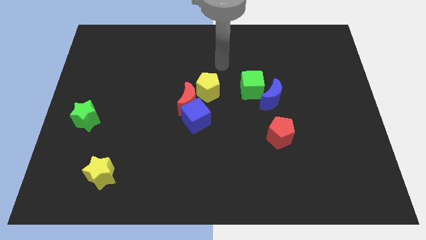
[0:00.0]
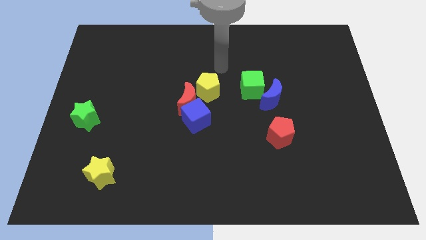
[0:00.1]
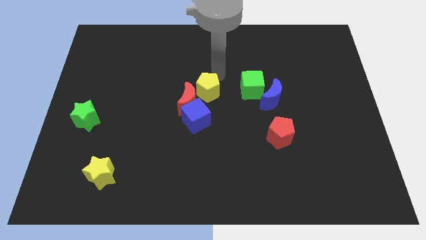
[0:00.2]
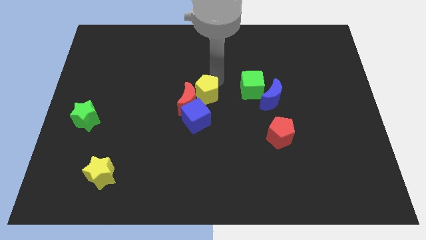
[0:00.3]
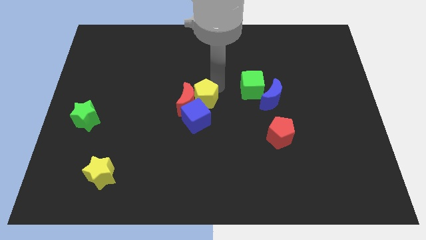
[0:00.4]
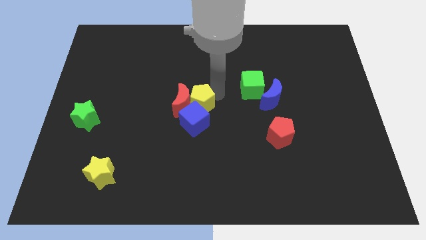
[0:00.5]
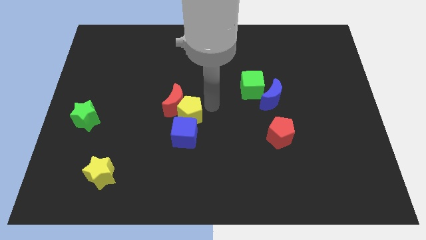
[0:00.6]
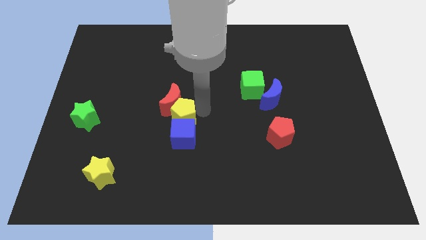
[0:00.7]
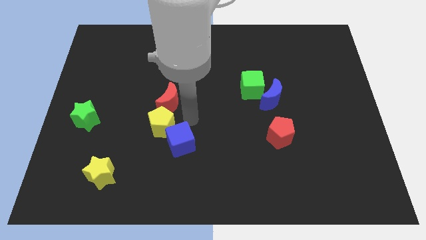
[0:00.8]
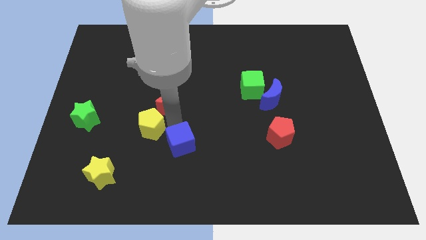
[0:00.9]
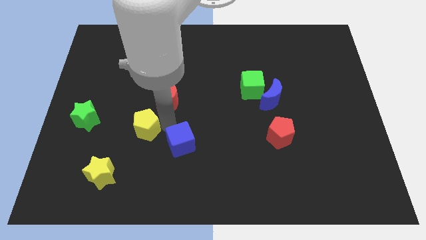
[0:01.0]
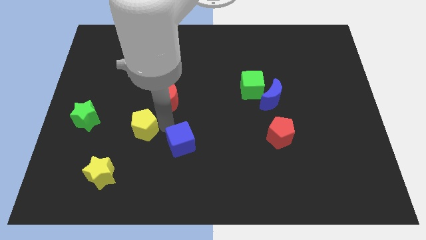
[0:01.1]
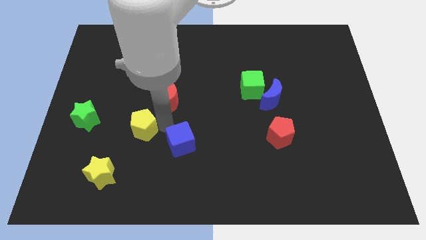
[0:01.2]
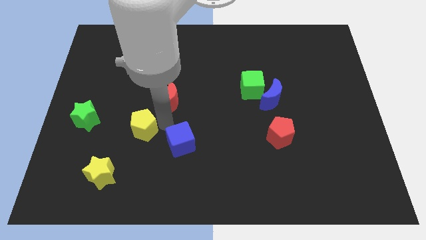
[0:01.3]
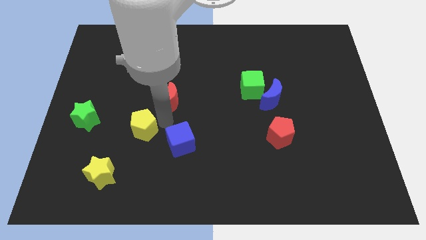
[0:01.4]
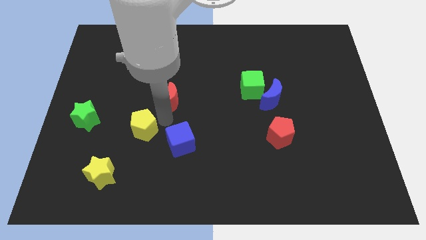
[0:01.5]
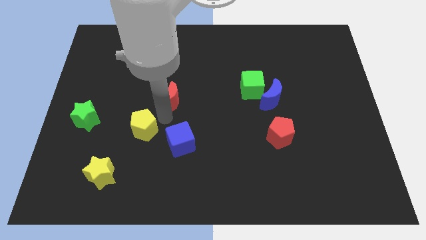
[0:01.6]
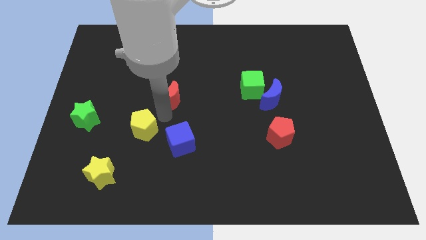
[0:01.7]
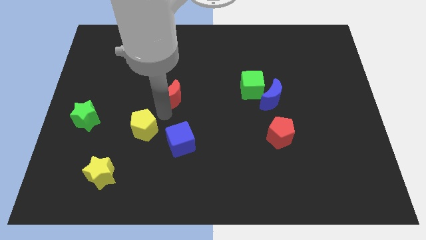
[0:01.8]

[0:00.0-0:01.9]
move the red moon away from the blue cube and yellow pentagon

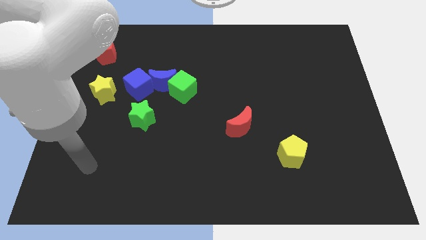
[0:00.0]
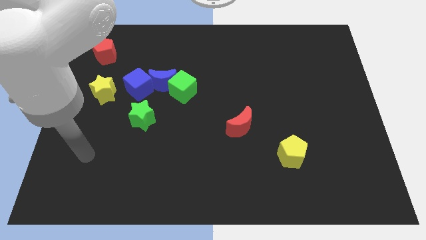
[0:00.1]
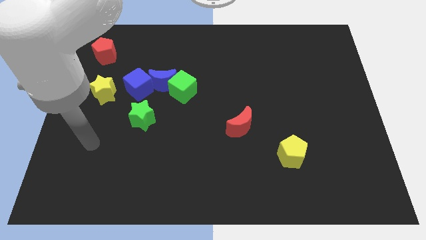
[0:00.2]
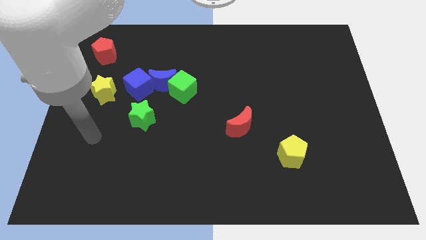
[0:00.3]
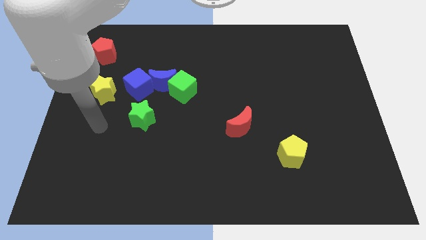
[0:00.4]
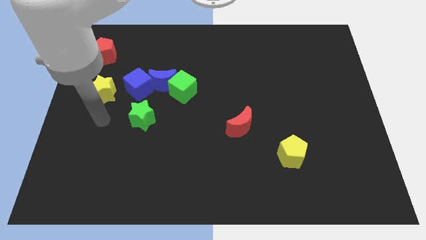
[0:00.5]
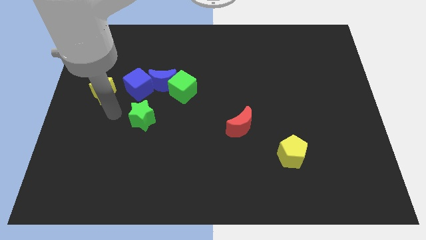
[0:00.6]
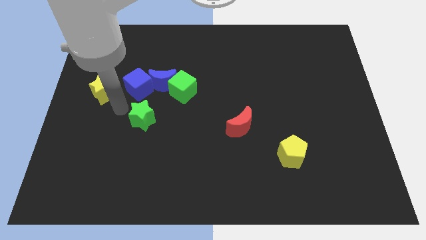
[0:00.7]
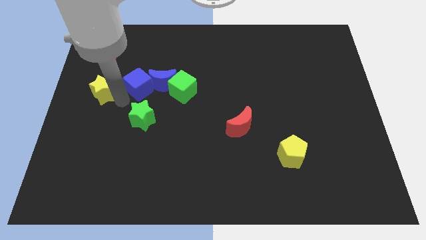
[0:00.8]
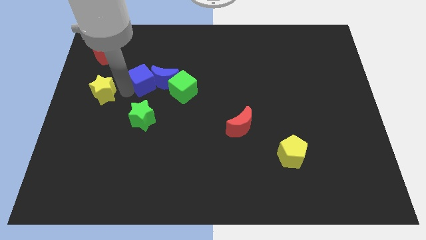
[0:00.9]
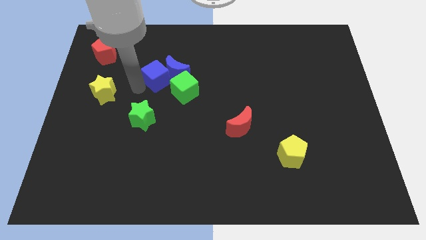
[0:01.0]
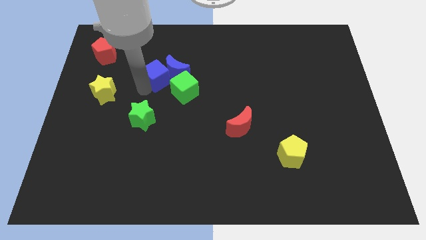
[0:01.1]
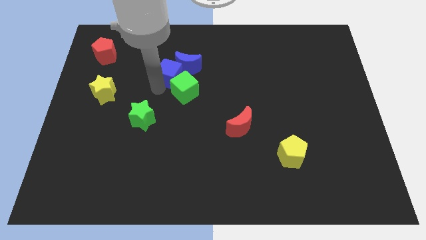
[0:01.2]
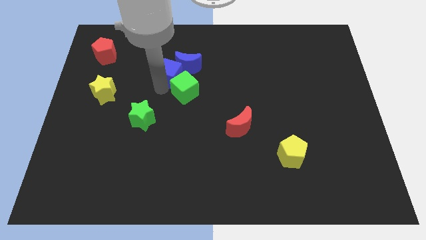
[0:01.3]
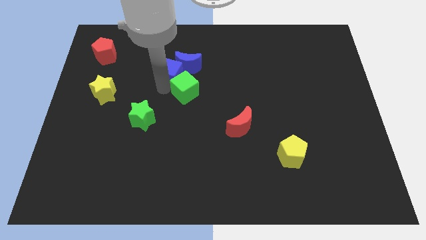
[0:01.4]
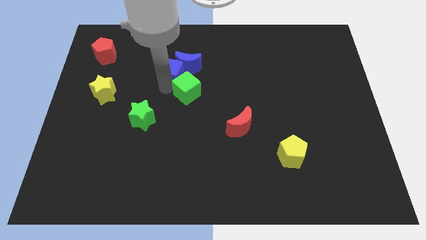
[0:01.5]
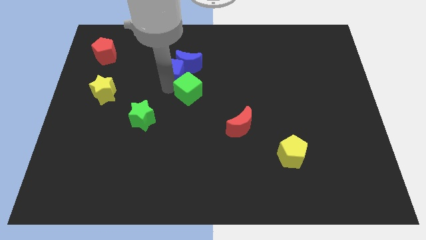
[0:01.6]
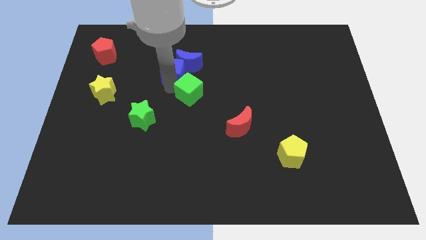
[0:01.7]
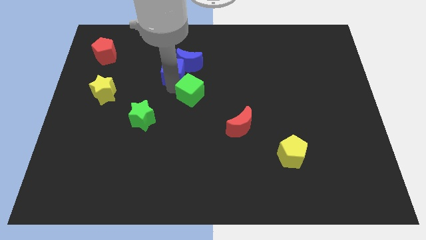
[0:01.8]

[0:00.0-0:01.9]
move the green cube away from the blue moon

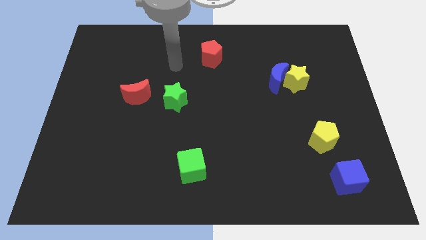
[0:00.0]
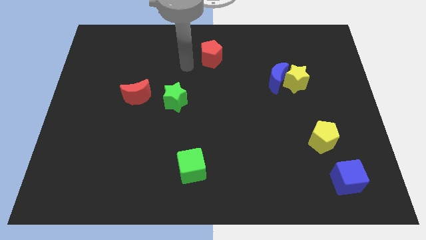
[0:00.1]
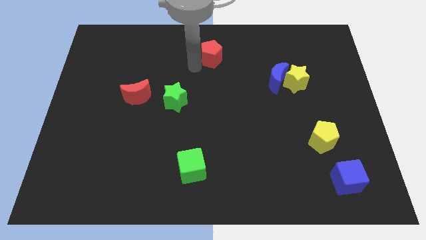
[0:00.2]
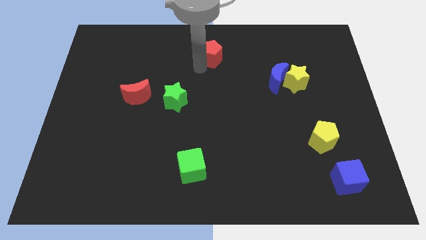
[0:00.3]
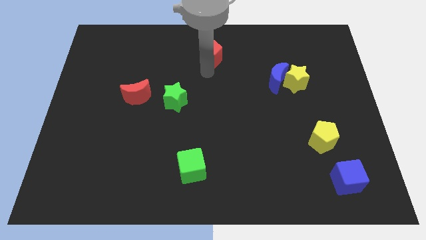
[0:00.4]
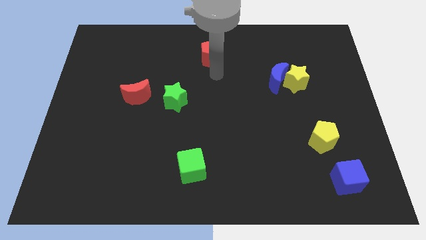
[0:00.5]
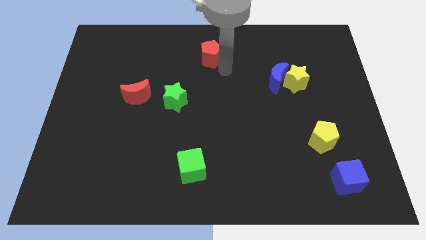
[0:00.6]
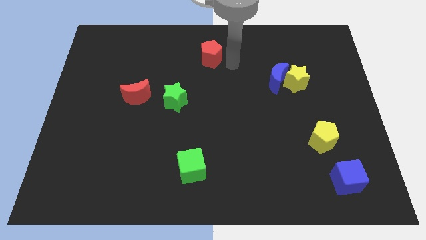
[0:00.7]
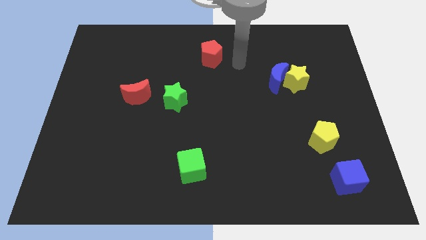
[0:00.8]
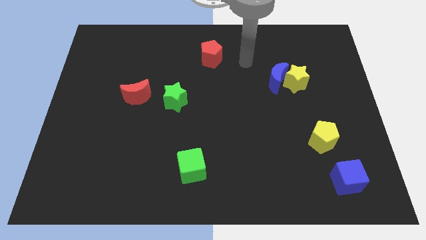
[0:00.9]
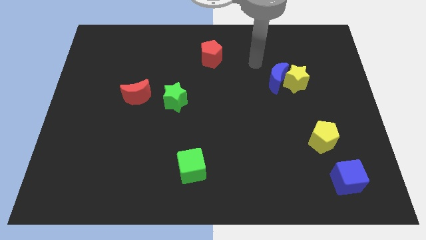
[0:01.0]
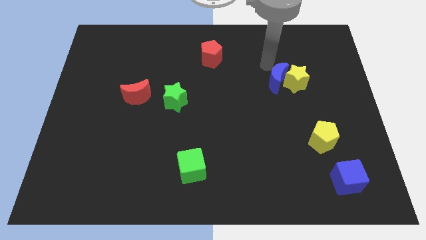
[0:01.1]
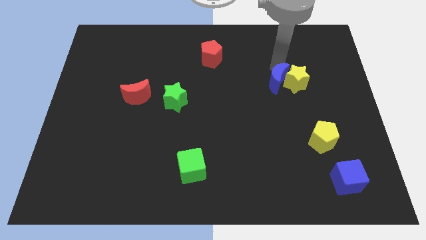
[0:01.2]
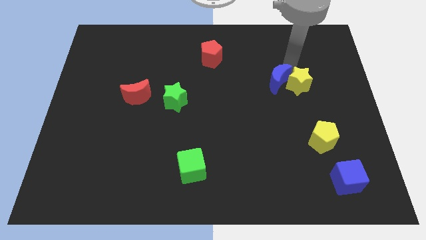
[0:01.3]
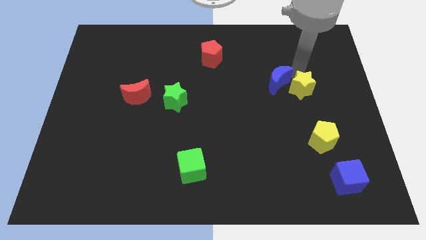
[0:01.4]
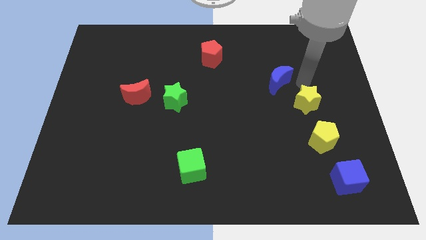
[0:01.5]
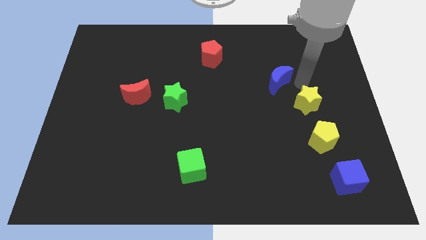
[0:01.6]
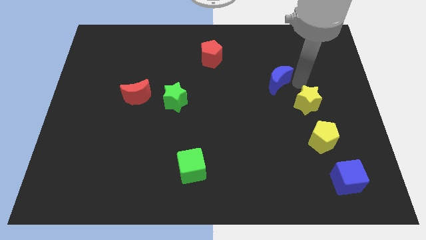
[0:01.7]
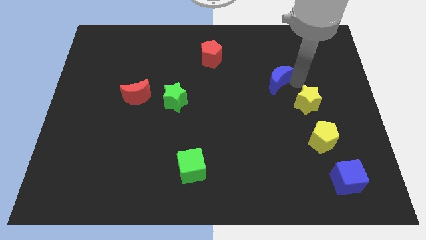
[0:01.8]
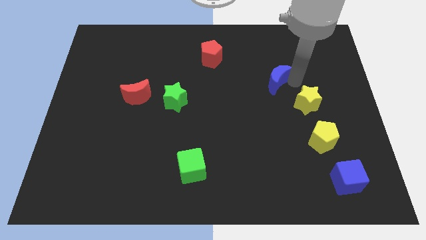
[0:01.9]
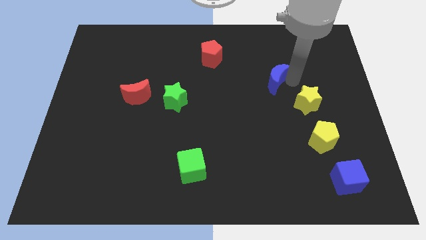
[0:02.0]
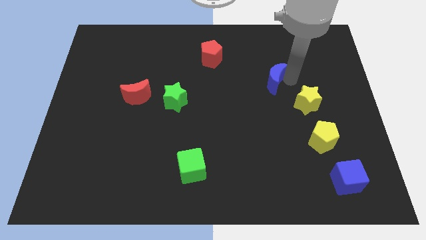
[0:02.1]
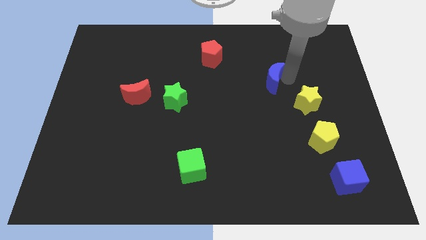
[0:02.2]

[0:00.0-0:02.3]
pull the blue moon apart from the yellow star

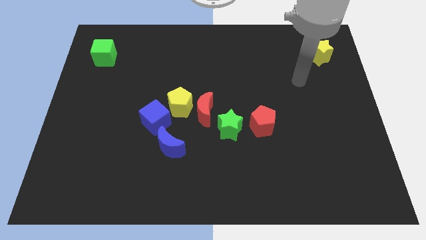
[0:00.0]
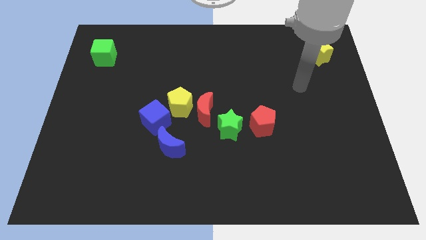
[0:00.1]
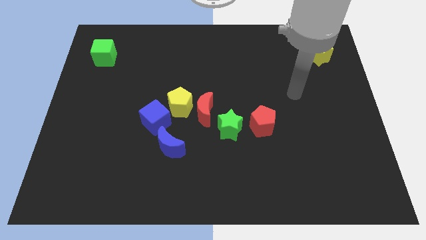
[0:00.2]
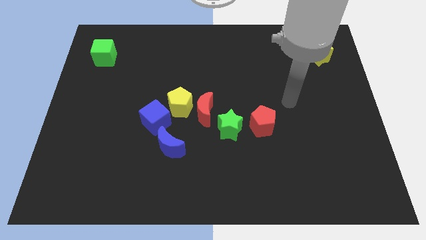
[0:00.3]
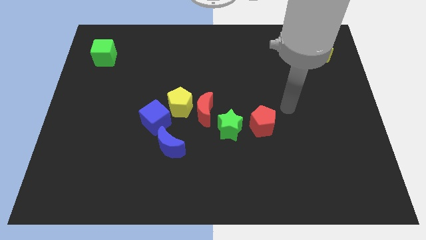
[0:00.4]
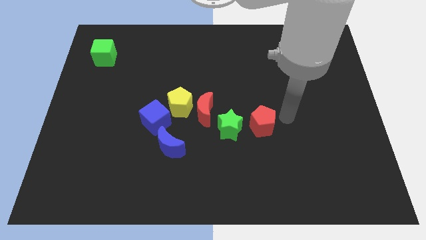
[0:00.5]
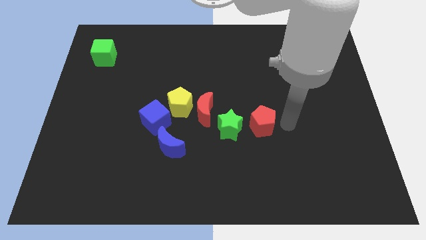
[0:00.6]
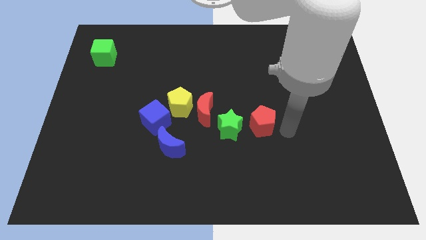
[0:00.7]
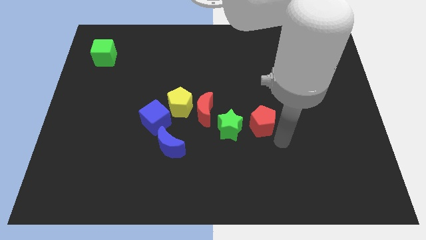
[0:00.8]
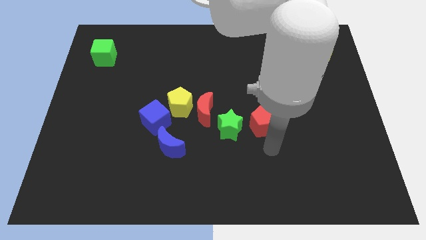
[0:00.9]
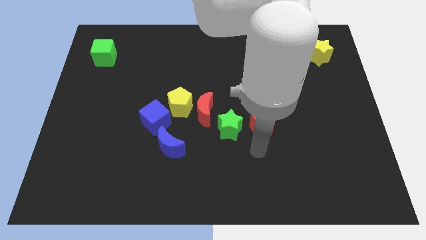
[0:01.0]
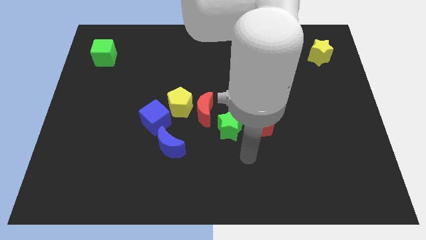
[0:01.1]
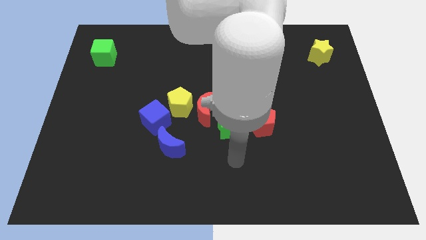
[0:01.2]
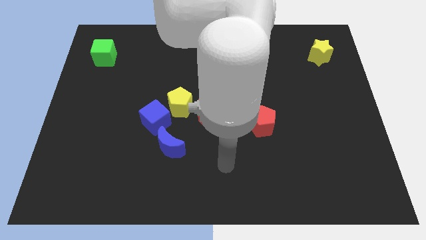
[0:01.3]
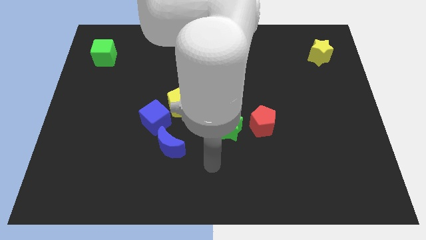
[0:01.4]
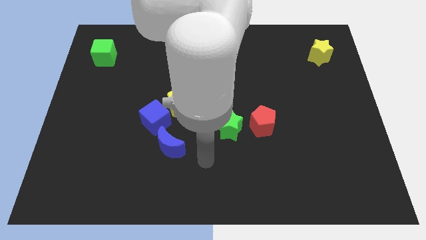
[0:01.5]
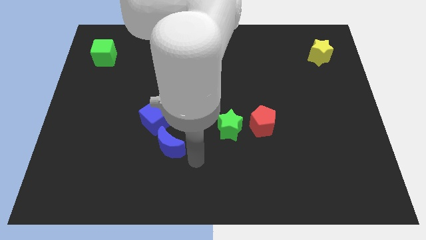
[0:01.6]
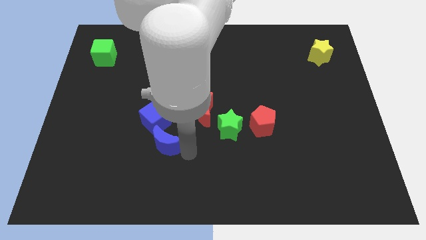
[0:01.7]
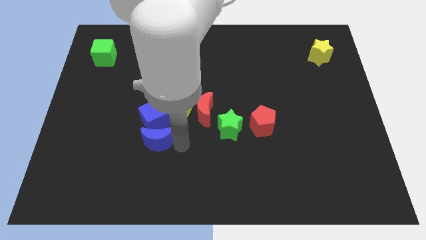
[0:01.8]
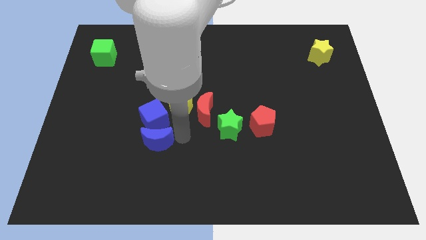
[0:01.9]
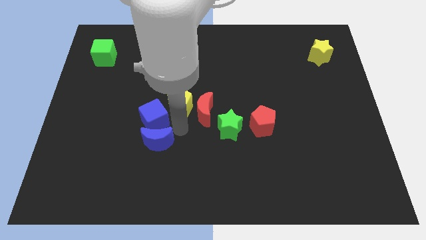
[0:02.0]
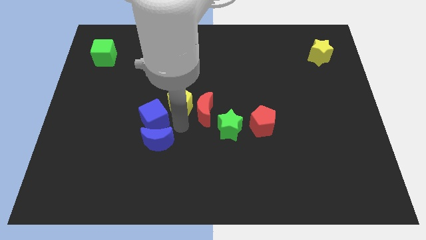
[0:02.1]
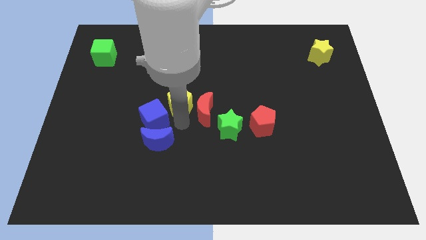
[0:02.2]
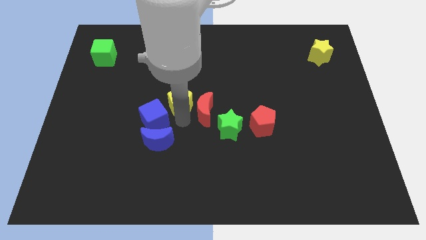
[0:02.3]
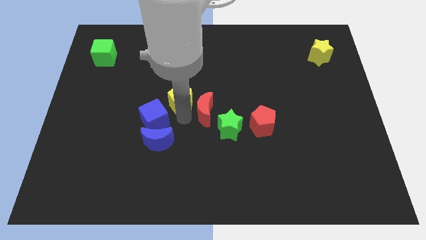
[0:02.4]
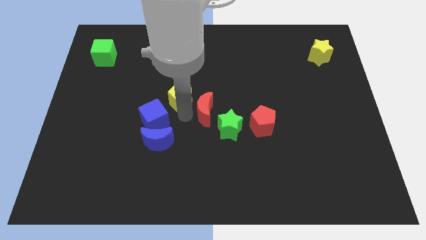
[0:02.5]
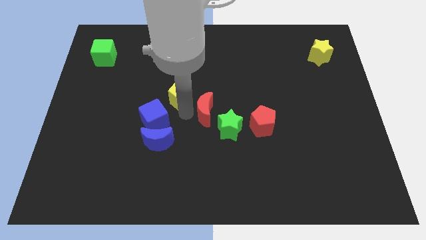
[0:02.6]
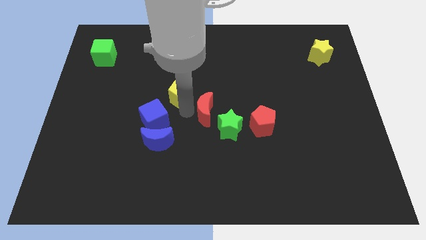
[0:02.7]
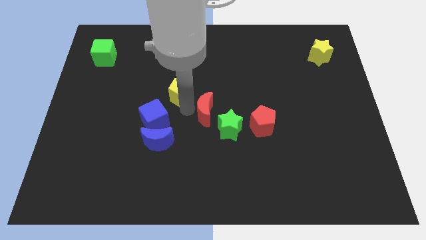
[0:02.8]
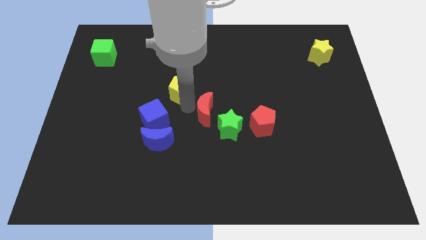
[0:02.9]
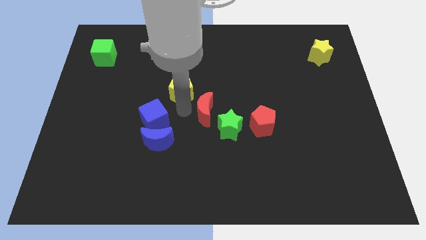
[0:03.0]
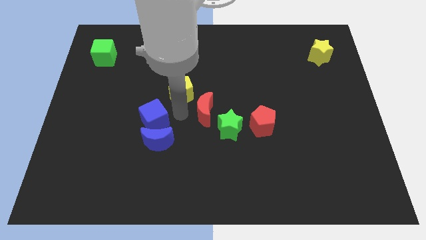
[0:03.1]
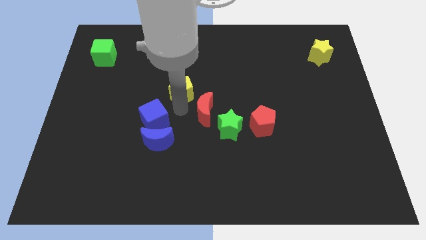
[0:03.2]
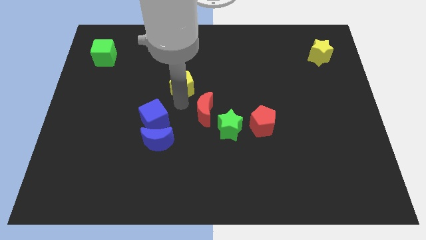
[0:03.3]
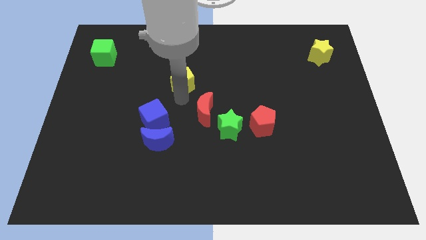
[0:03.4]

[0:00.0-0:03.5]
pull the yellow pentagon apart from the red moon and blue cube
